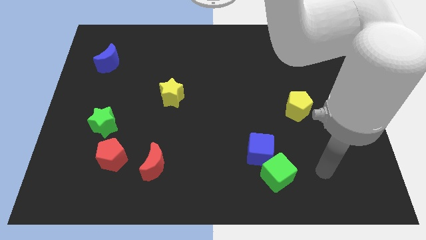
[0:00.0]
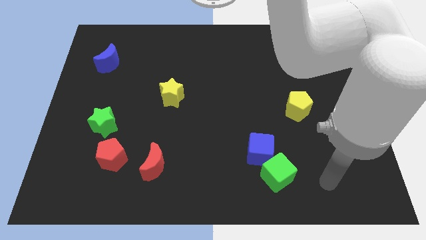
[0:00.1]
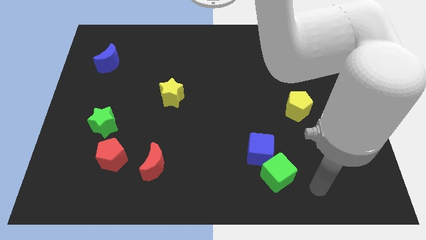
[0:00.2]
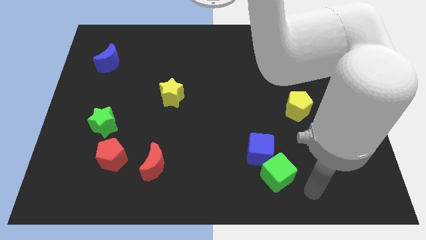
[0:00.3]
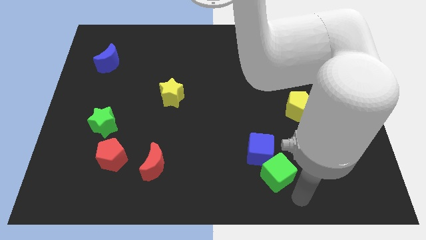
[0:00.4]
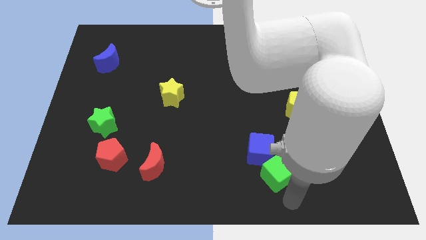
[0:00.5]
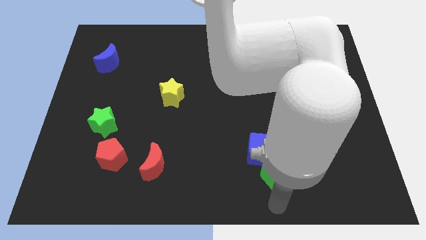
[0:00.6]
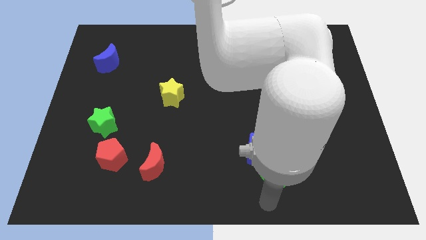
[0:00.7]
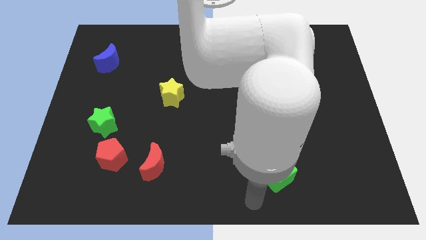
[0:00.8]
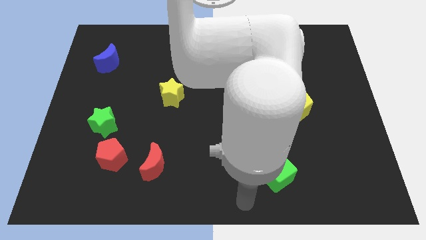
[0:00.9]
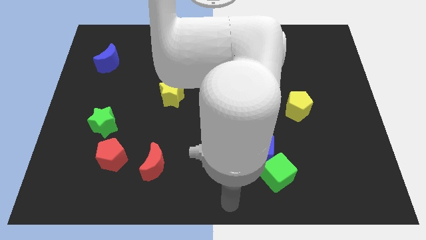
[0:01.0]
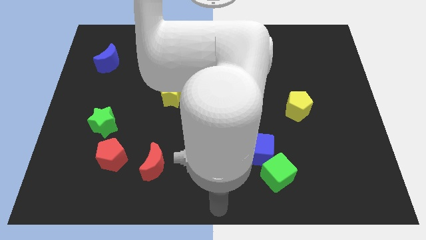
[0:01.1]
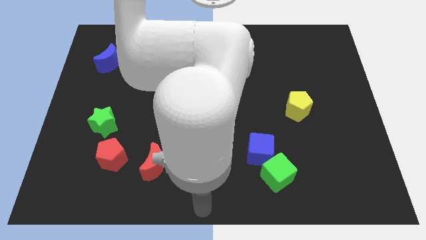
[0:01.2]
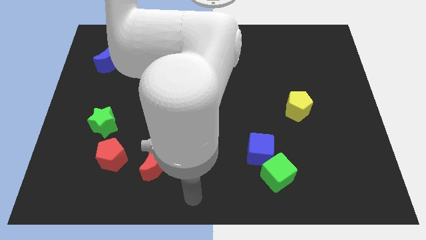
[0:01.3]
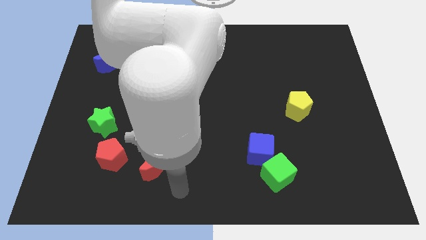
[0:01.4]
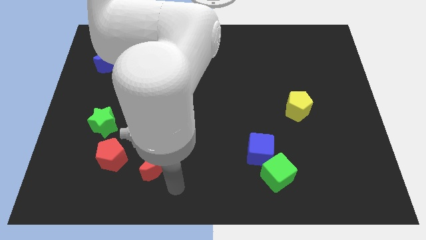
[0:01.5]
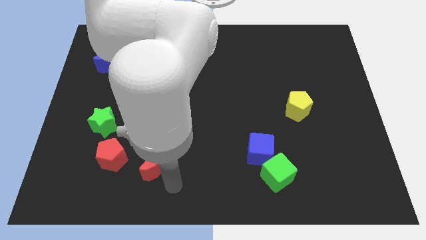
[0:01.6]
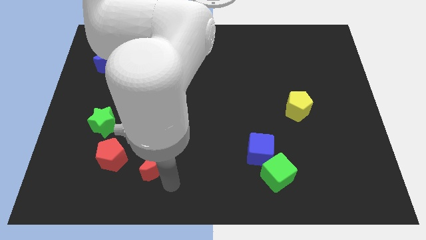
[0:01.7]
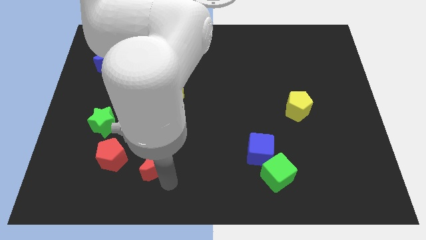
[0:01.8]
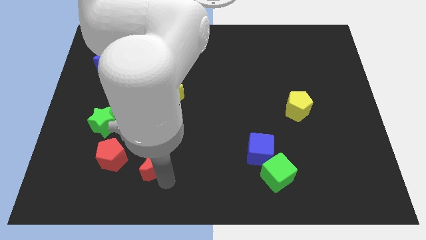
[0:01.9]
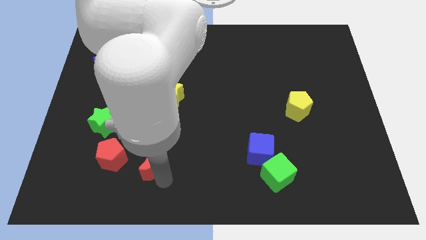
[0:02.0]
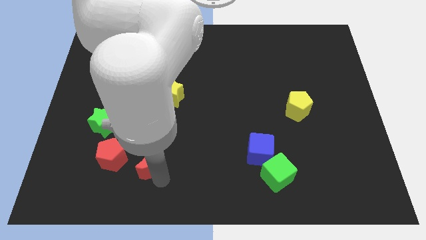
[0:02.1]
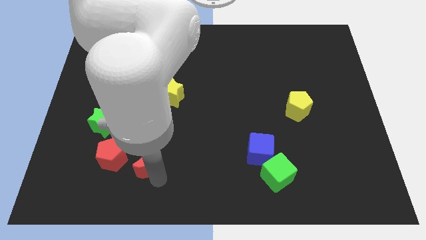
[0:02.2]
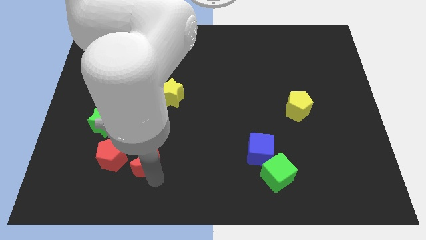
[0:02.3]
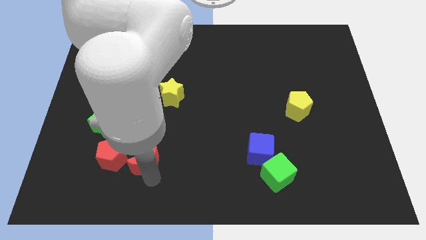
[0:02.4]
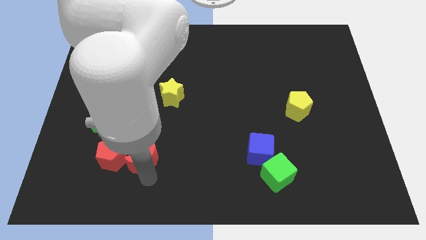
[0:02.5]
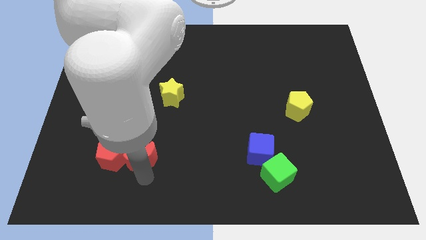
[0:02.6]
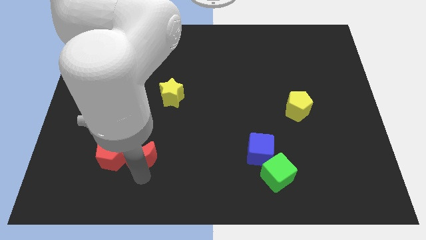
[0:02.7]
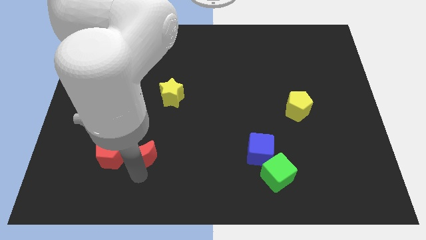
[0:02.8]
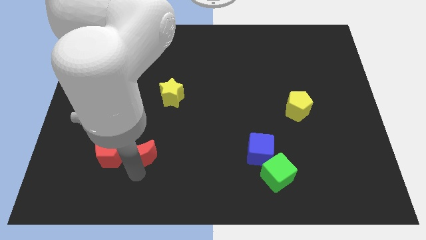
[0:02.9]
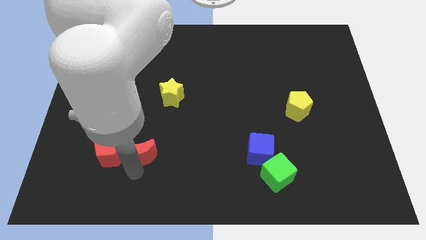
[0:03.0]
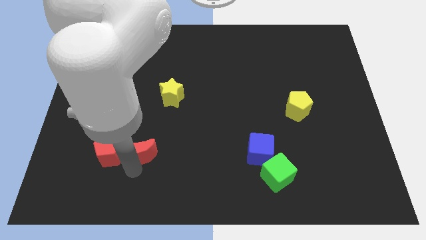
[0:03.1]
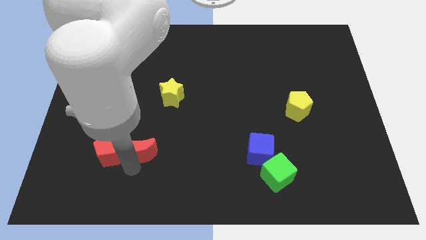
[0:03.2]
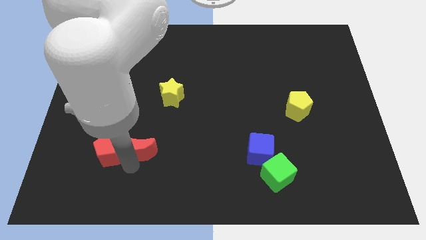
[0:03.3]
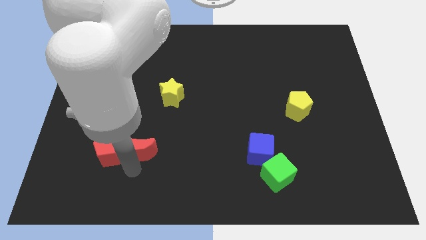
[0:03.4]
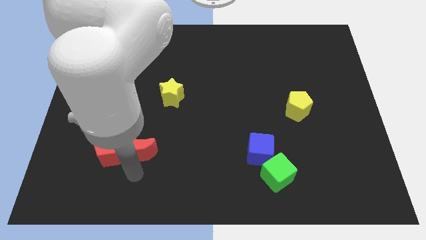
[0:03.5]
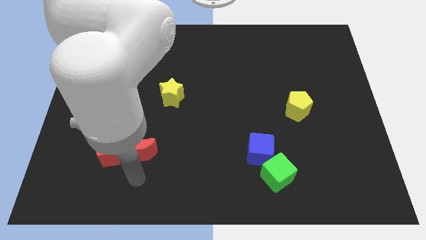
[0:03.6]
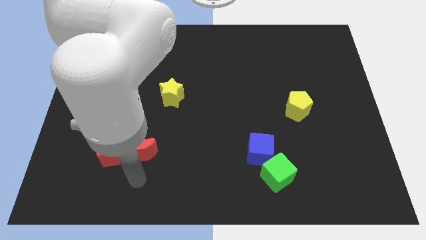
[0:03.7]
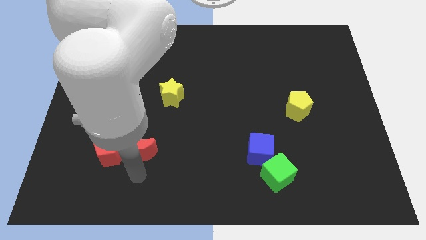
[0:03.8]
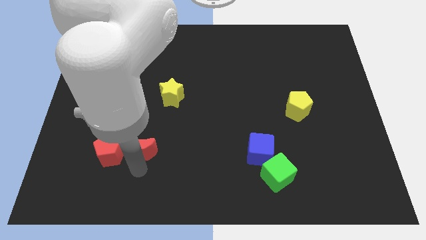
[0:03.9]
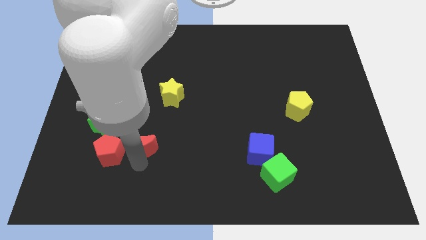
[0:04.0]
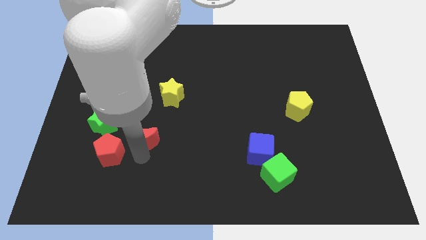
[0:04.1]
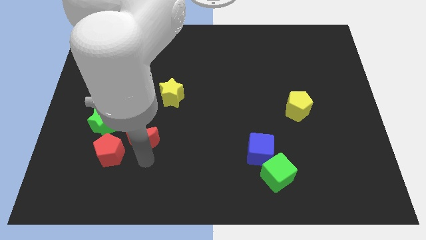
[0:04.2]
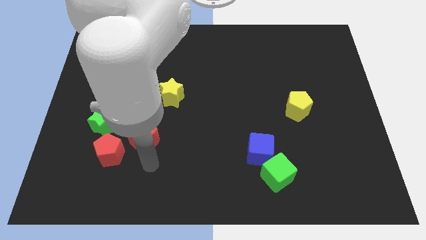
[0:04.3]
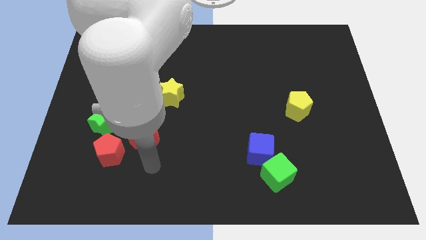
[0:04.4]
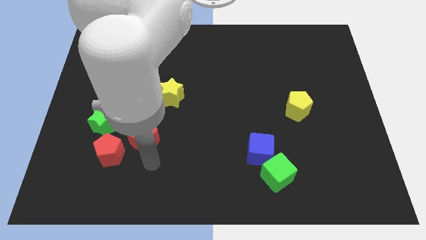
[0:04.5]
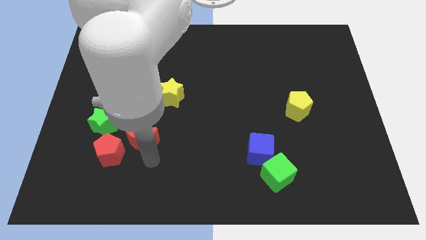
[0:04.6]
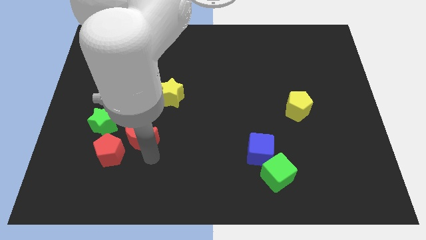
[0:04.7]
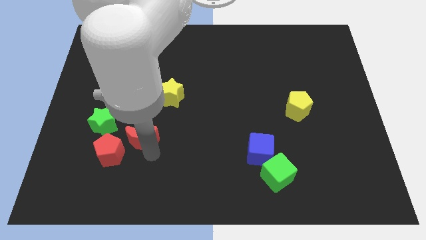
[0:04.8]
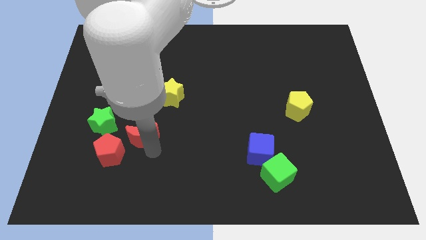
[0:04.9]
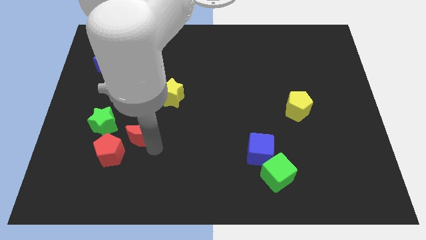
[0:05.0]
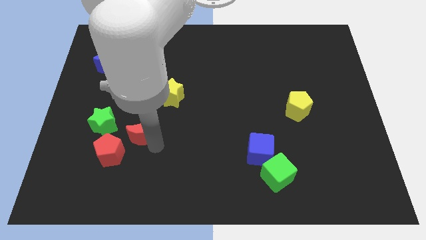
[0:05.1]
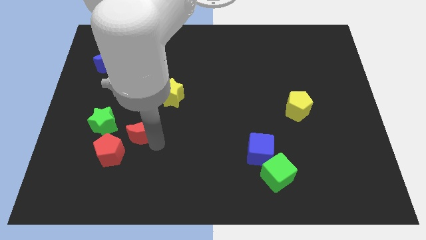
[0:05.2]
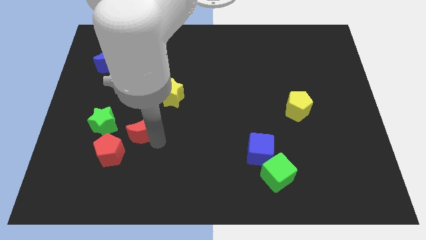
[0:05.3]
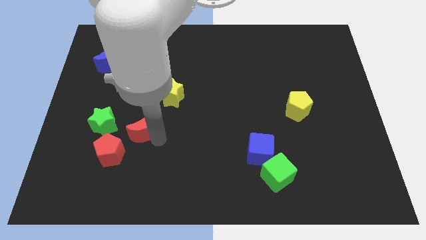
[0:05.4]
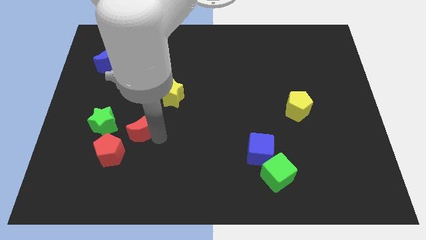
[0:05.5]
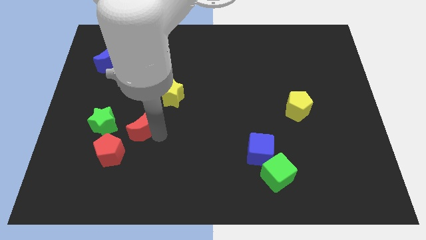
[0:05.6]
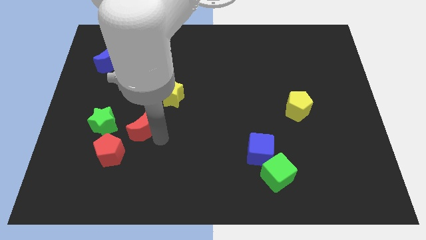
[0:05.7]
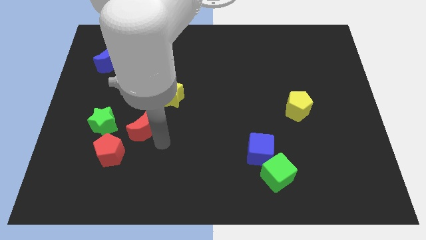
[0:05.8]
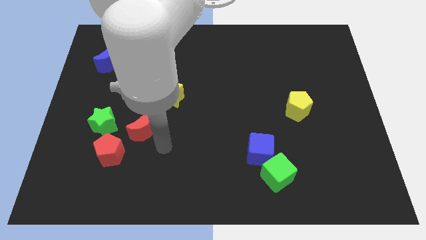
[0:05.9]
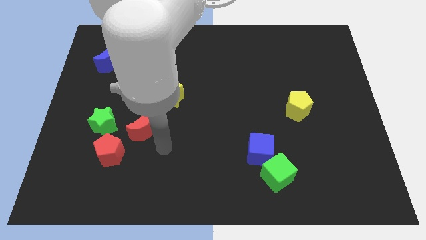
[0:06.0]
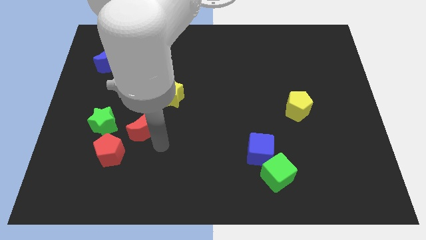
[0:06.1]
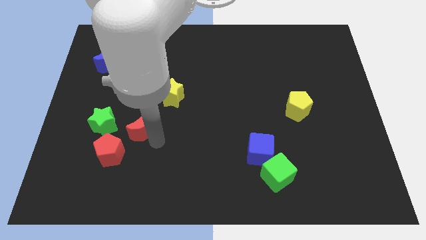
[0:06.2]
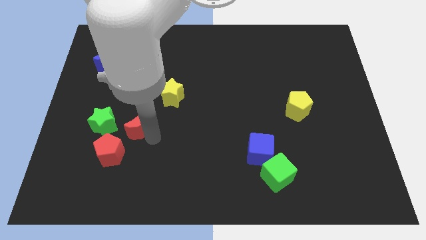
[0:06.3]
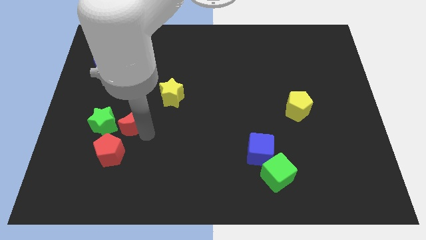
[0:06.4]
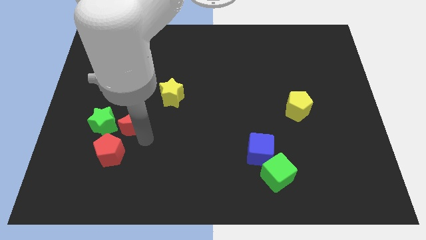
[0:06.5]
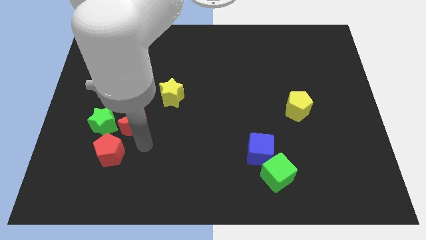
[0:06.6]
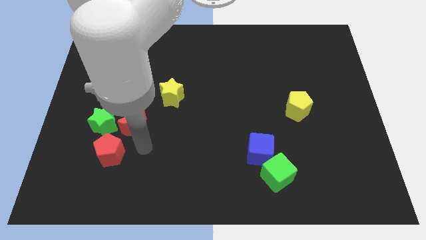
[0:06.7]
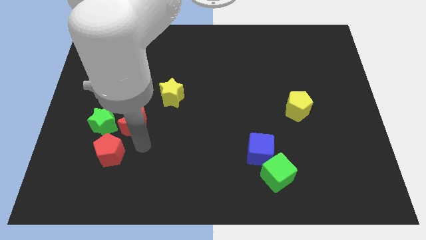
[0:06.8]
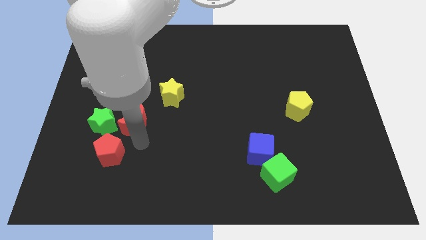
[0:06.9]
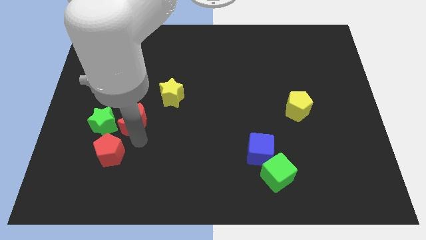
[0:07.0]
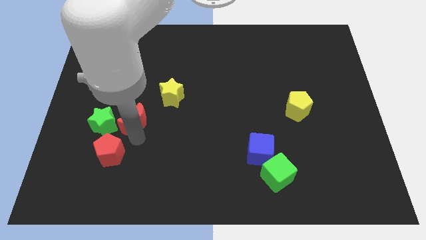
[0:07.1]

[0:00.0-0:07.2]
slide the red moon diagonally up and to the right of the green star

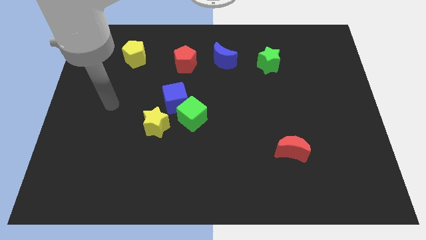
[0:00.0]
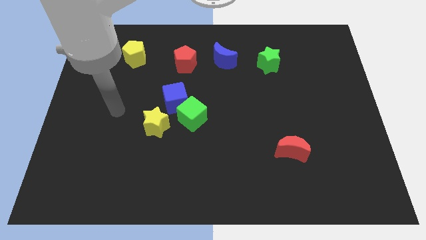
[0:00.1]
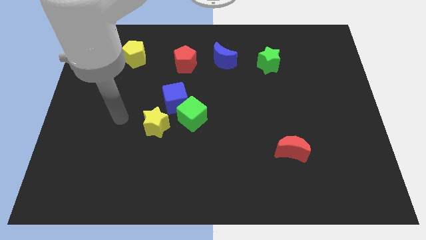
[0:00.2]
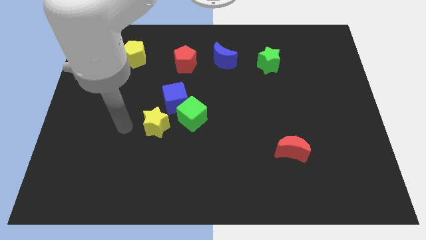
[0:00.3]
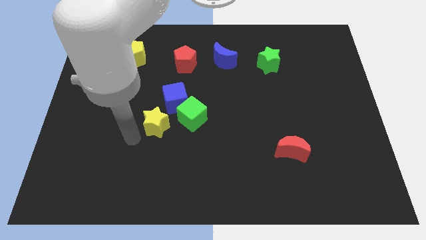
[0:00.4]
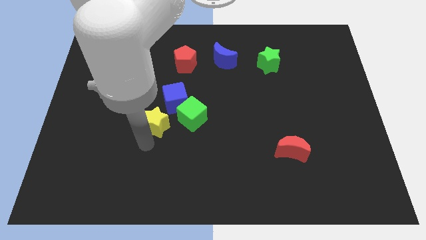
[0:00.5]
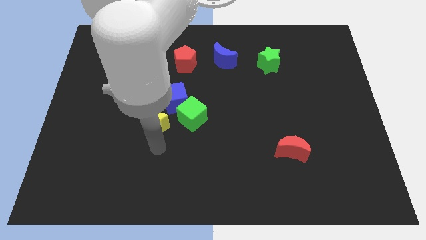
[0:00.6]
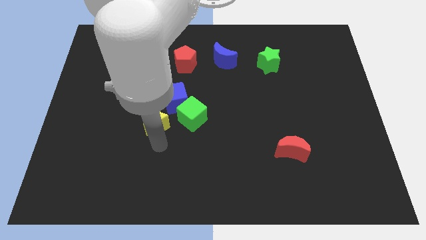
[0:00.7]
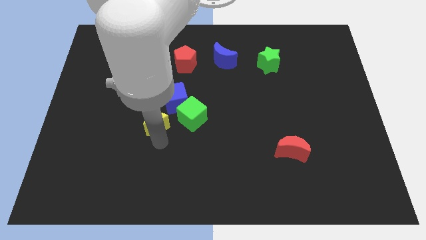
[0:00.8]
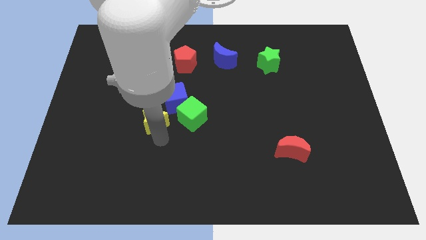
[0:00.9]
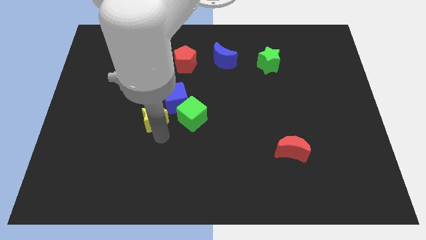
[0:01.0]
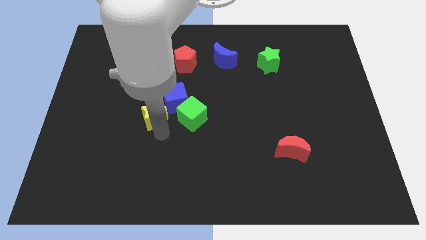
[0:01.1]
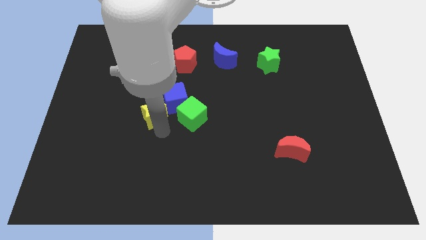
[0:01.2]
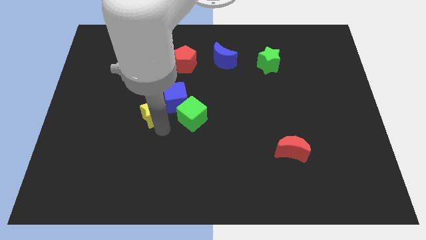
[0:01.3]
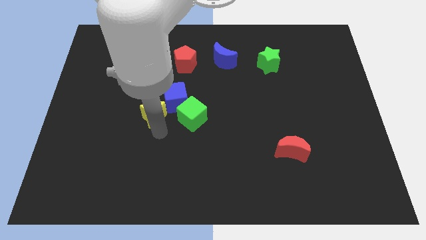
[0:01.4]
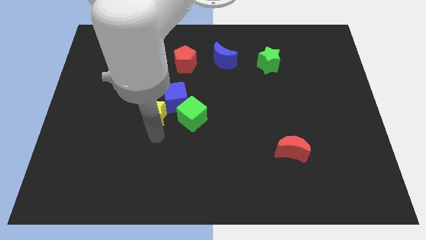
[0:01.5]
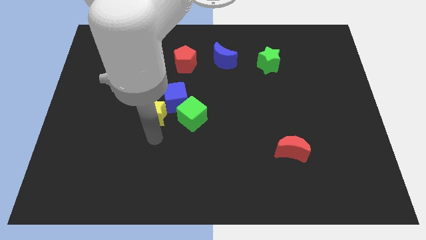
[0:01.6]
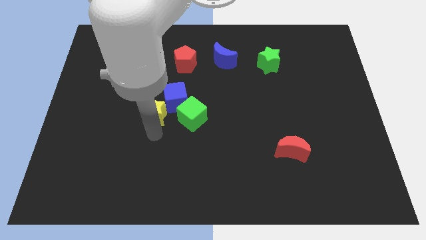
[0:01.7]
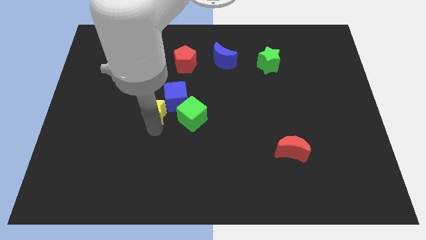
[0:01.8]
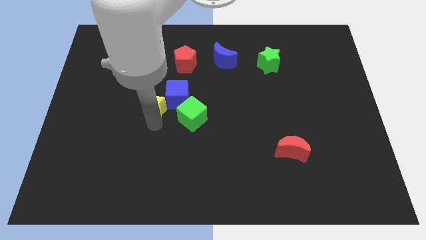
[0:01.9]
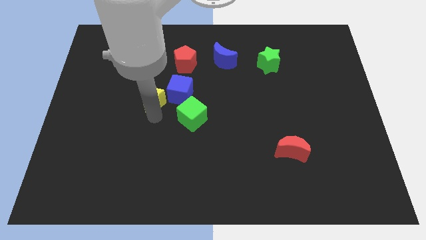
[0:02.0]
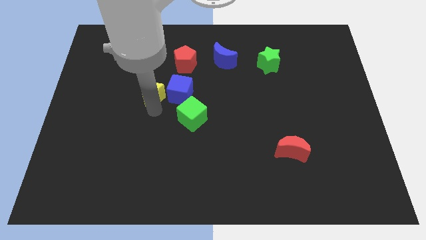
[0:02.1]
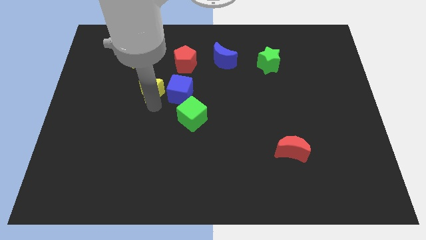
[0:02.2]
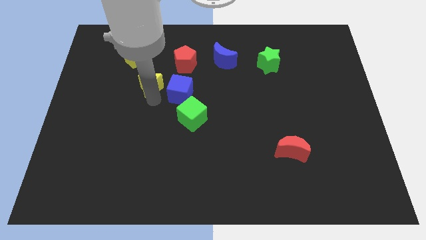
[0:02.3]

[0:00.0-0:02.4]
slide the yellow star diagonally down and to the right of the yellow pentagon
